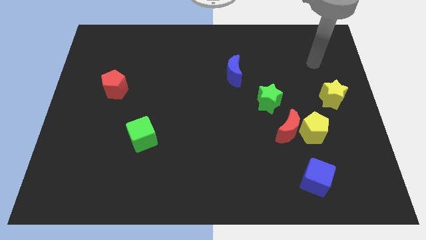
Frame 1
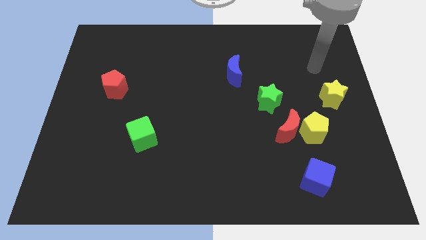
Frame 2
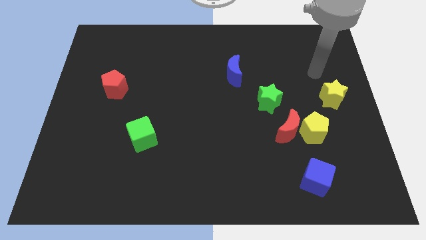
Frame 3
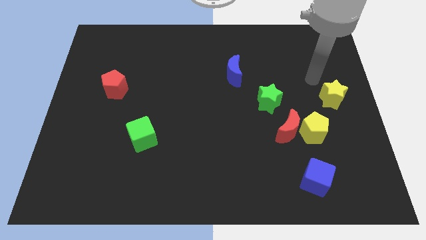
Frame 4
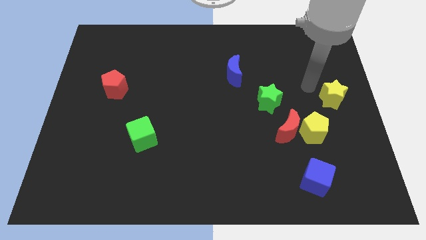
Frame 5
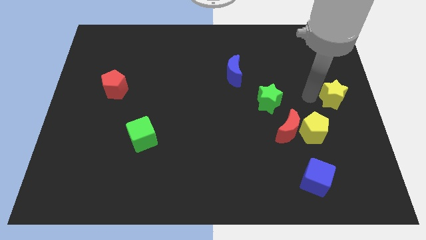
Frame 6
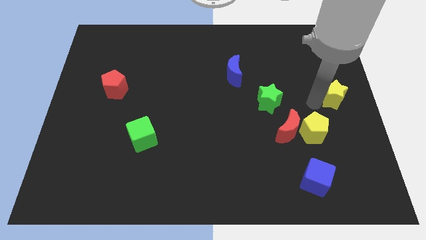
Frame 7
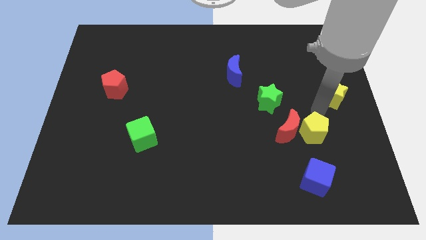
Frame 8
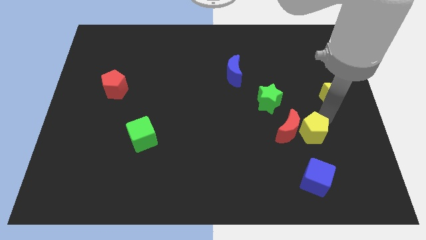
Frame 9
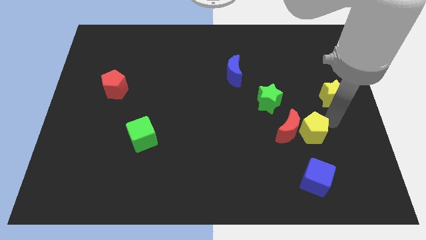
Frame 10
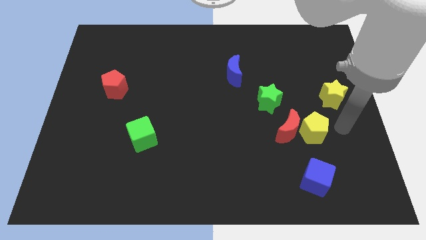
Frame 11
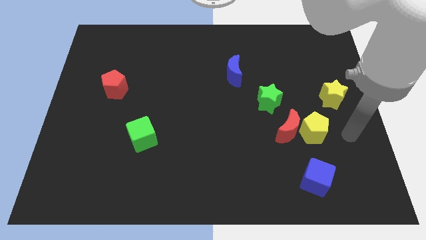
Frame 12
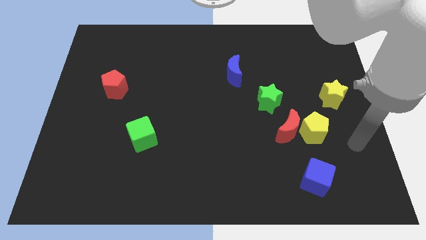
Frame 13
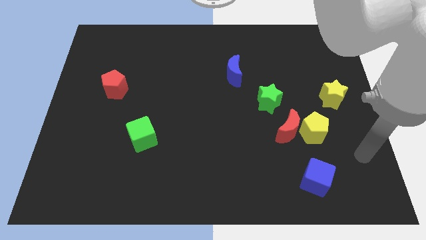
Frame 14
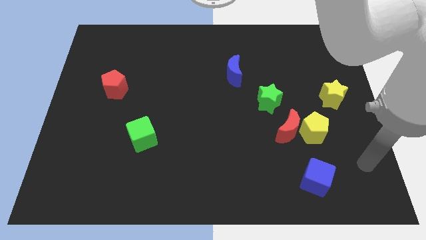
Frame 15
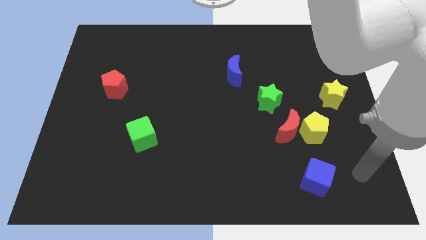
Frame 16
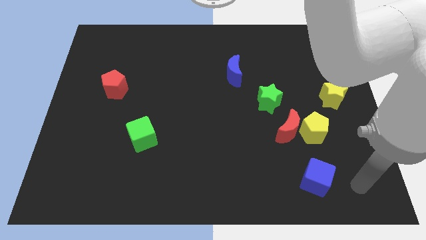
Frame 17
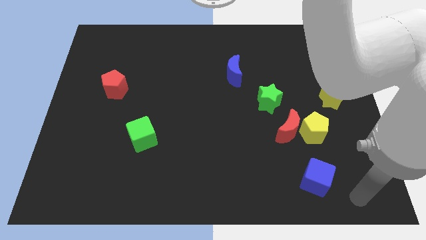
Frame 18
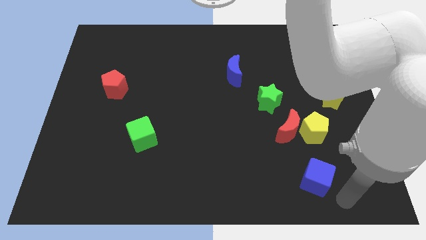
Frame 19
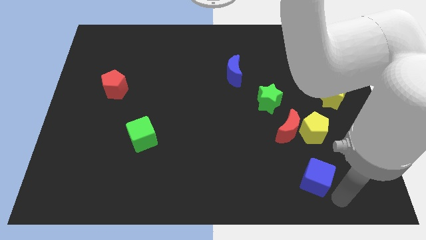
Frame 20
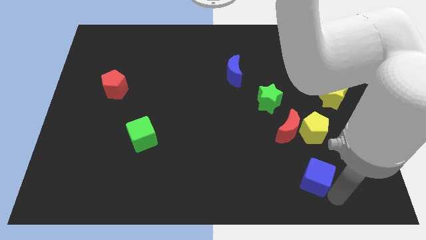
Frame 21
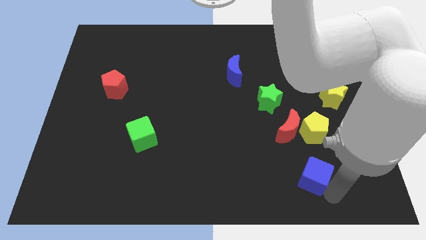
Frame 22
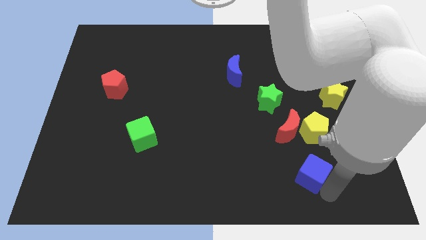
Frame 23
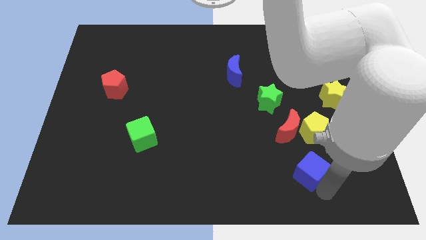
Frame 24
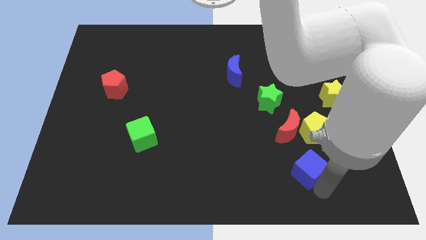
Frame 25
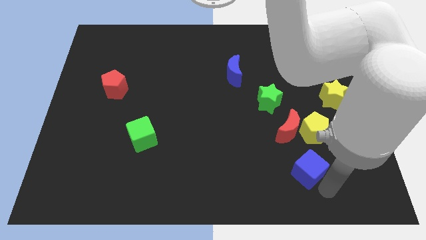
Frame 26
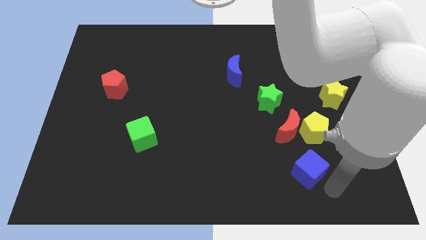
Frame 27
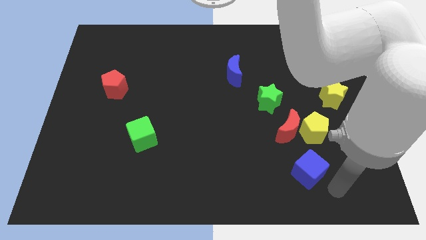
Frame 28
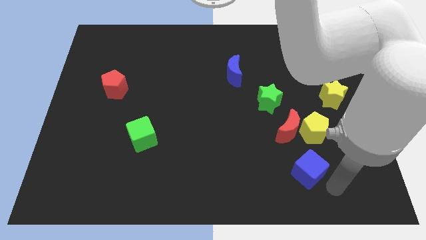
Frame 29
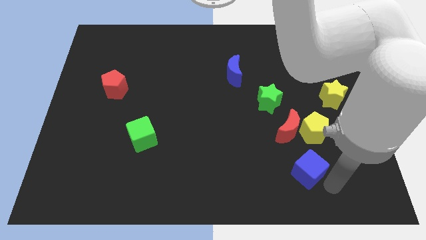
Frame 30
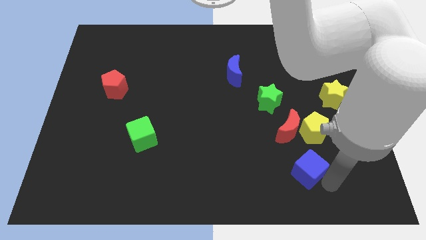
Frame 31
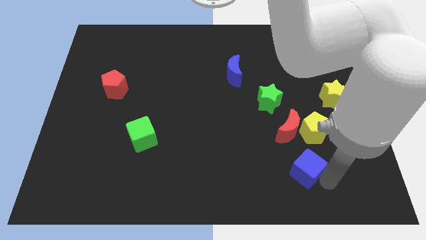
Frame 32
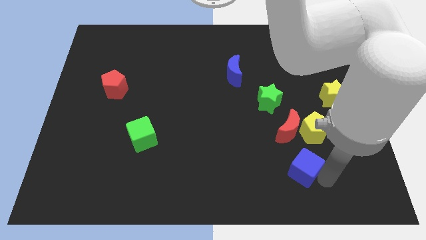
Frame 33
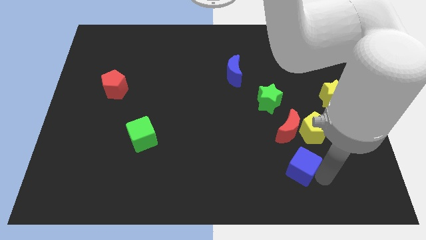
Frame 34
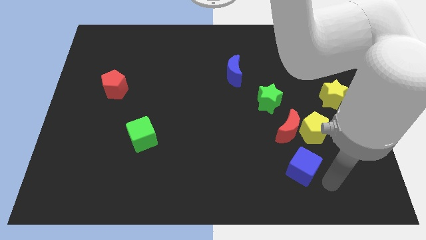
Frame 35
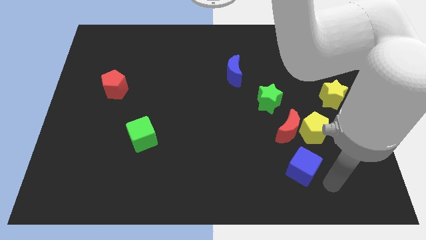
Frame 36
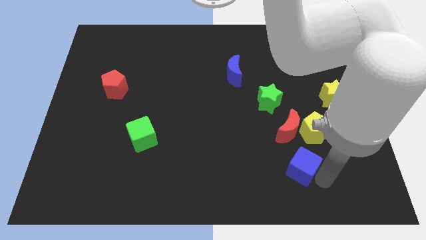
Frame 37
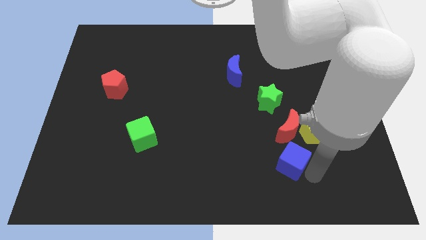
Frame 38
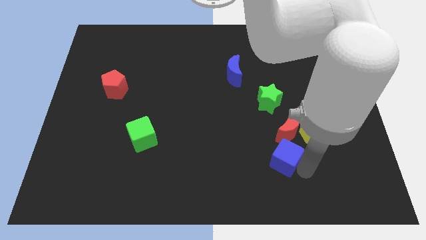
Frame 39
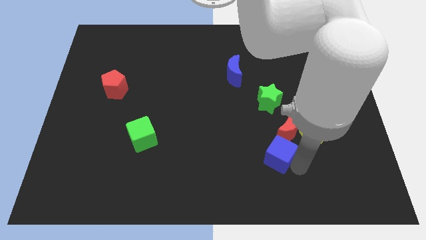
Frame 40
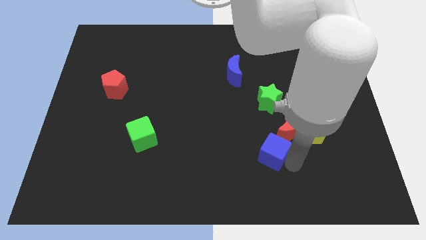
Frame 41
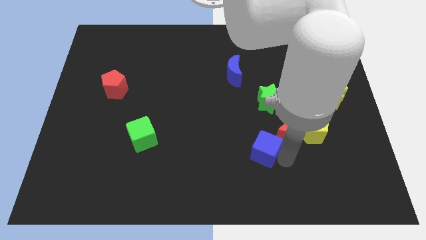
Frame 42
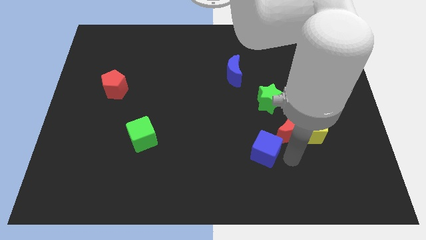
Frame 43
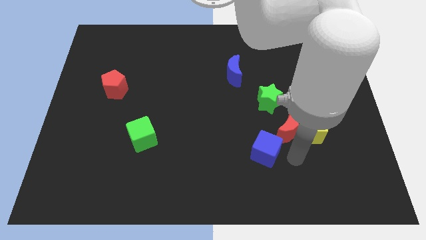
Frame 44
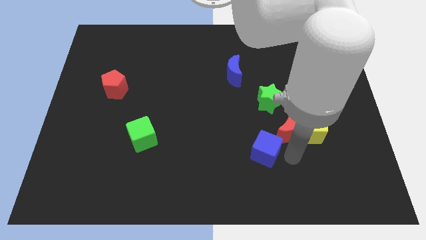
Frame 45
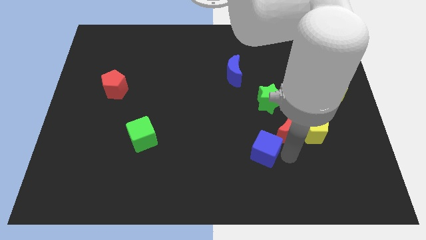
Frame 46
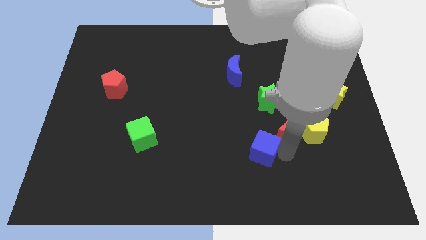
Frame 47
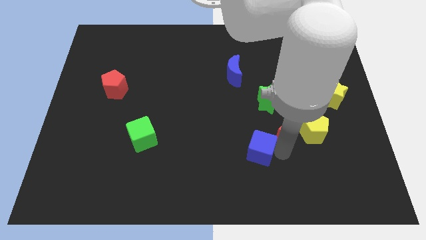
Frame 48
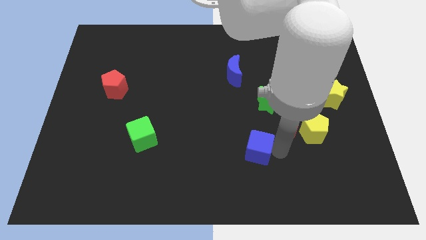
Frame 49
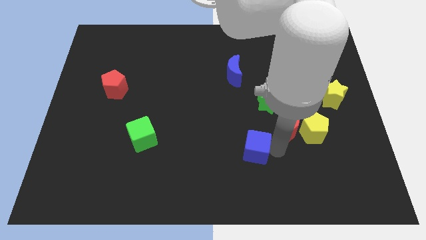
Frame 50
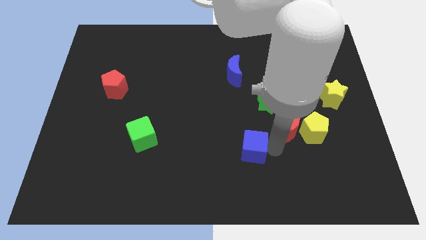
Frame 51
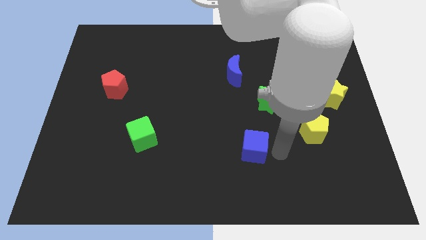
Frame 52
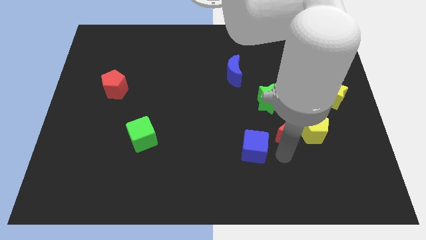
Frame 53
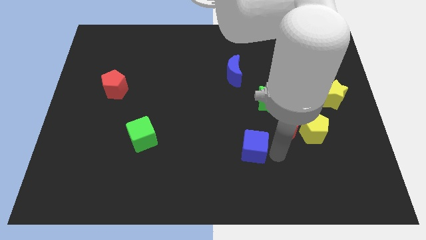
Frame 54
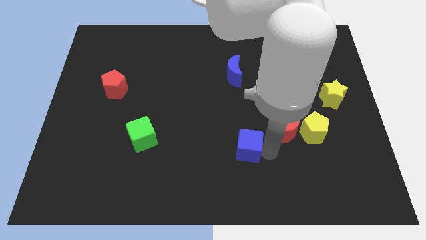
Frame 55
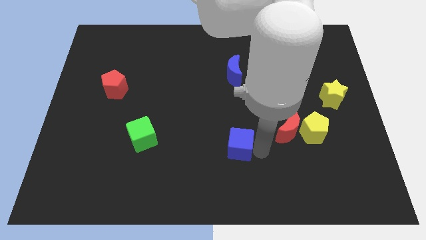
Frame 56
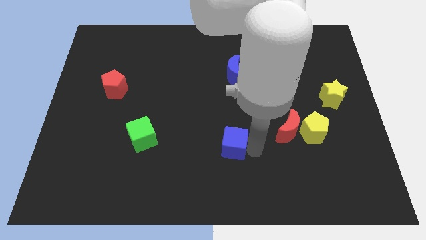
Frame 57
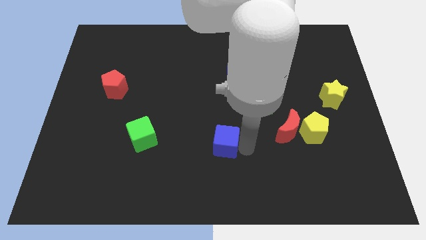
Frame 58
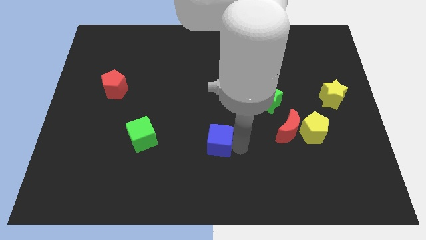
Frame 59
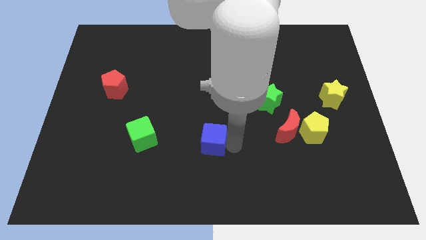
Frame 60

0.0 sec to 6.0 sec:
push the blue cube to the right side of the green cube
